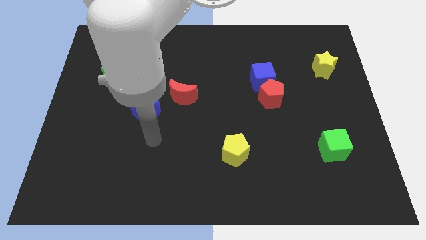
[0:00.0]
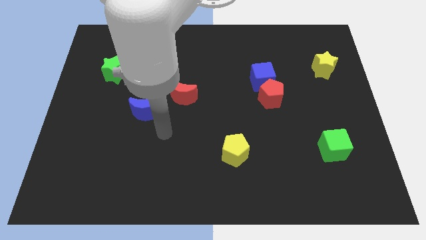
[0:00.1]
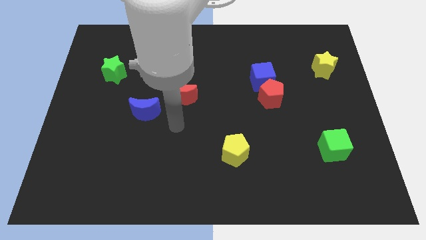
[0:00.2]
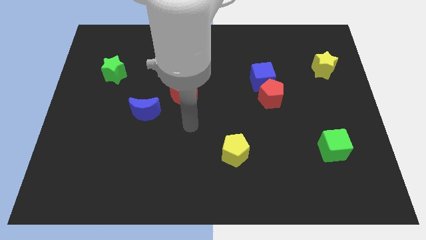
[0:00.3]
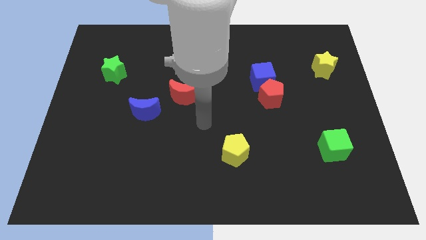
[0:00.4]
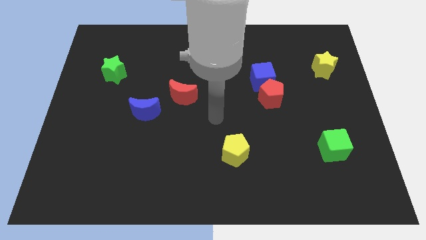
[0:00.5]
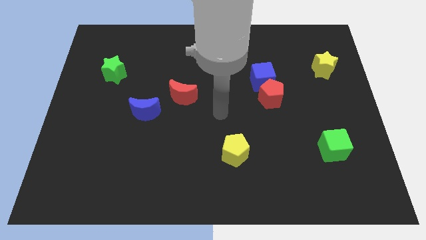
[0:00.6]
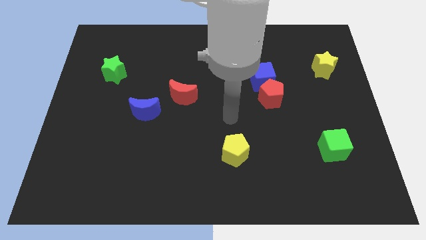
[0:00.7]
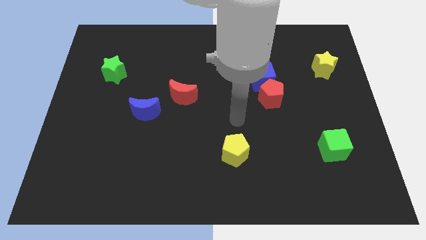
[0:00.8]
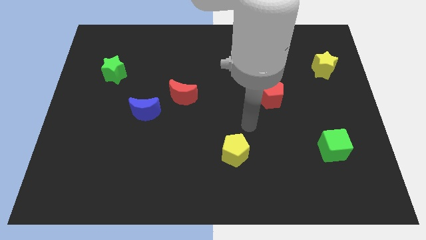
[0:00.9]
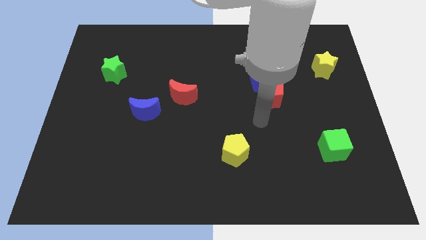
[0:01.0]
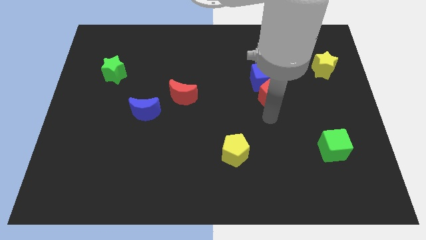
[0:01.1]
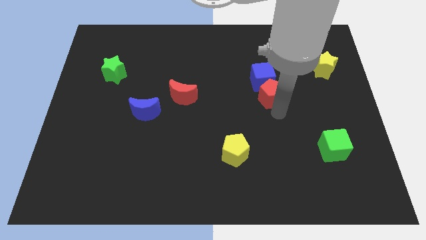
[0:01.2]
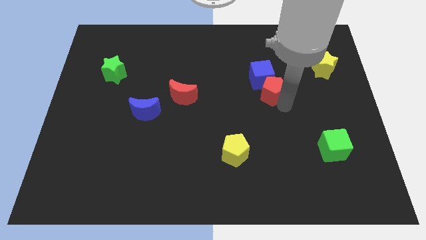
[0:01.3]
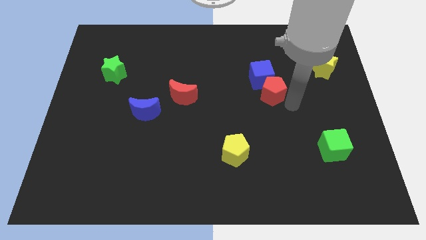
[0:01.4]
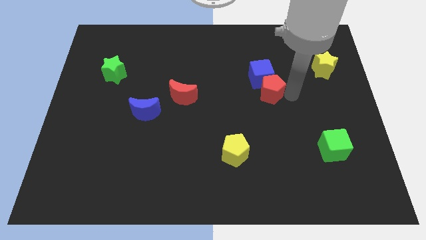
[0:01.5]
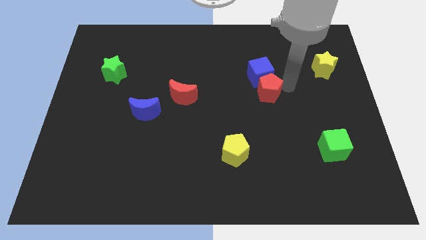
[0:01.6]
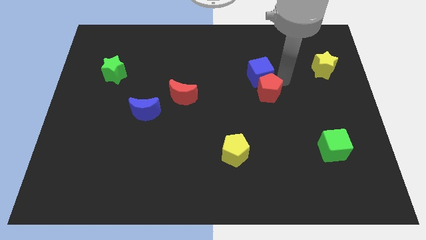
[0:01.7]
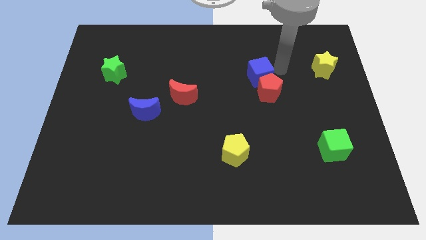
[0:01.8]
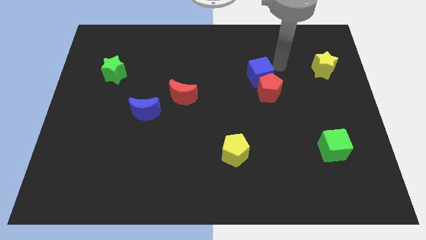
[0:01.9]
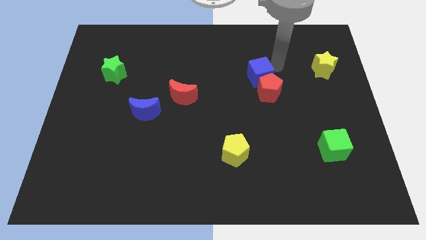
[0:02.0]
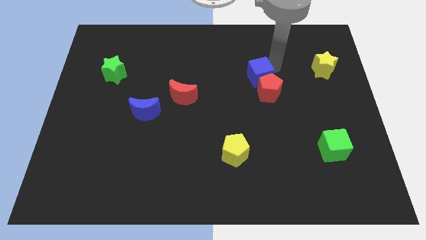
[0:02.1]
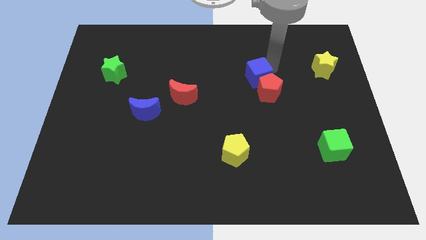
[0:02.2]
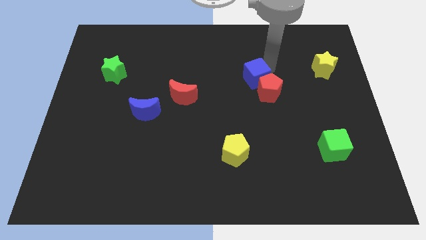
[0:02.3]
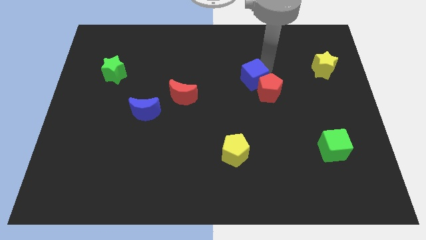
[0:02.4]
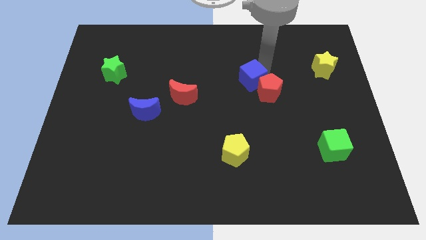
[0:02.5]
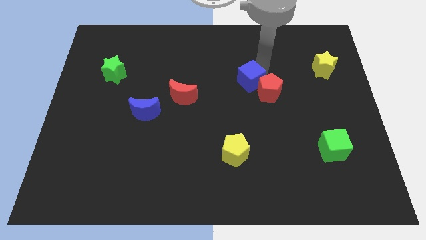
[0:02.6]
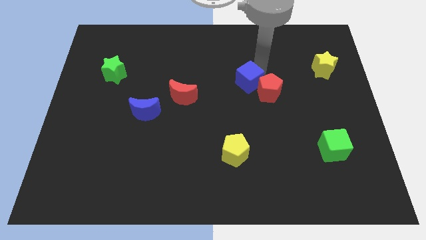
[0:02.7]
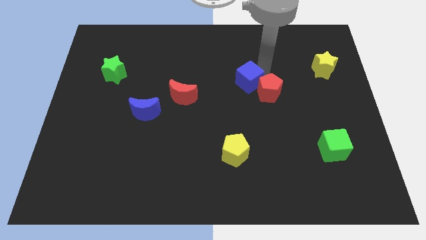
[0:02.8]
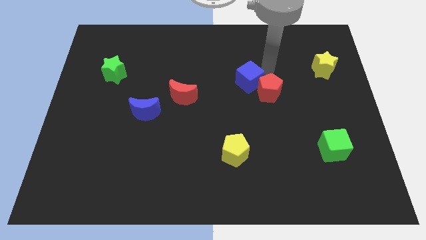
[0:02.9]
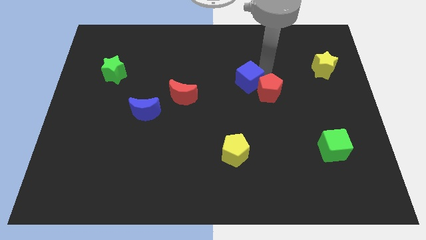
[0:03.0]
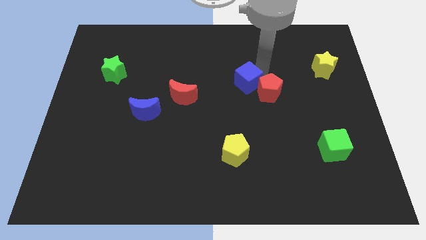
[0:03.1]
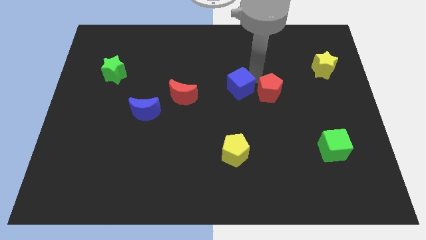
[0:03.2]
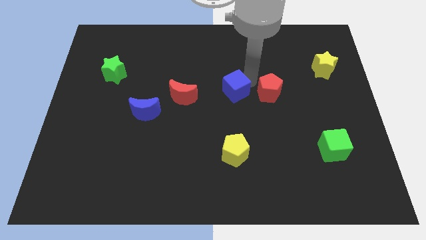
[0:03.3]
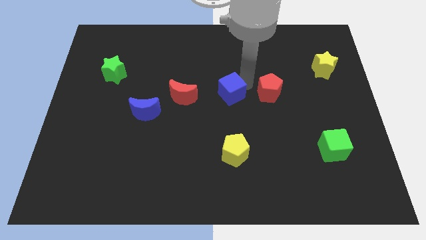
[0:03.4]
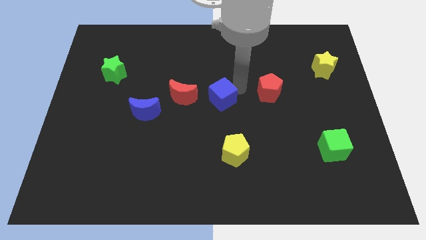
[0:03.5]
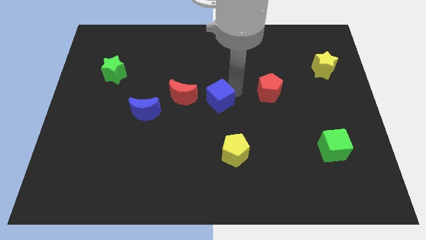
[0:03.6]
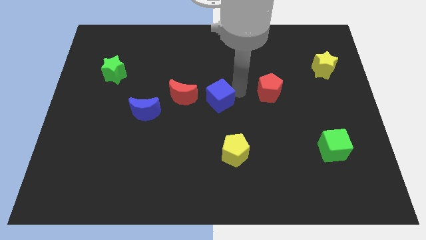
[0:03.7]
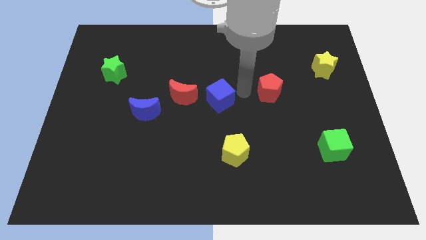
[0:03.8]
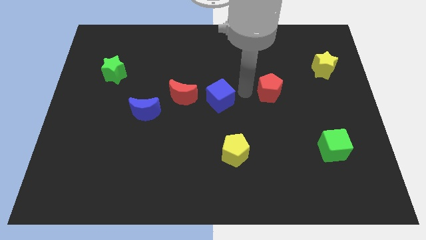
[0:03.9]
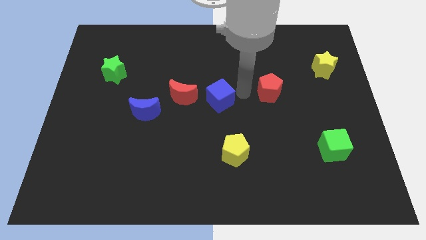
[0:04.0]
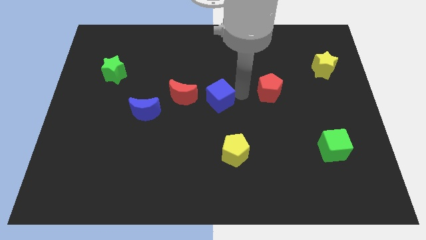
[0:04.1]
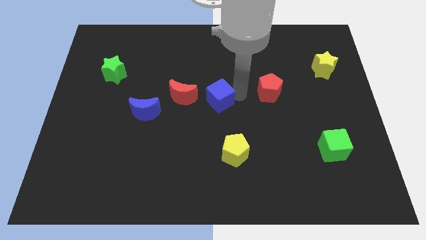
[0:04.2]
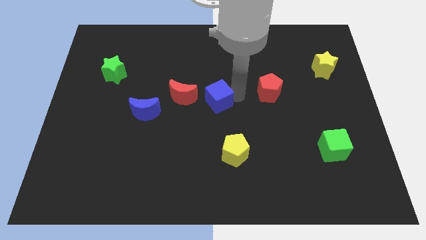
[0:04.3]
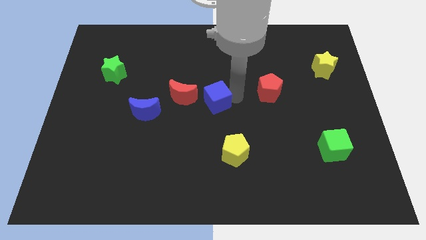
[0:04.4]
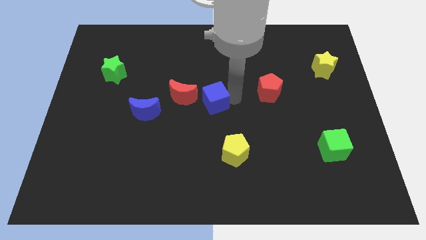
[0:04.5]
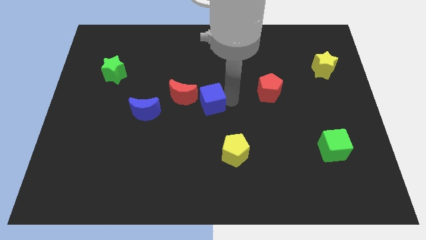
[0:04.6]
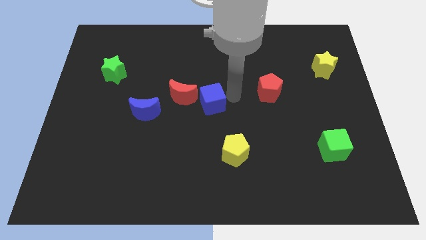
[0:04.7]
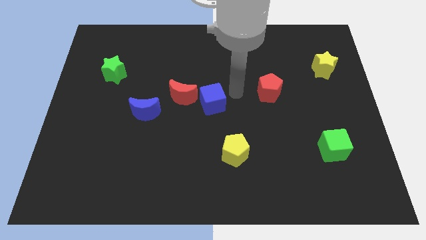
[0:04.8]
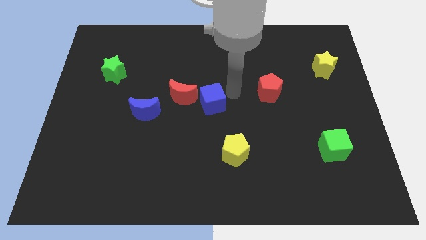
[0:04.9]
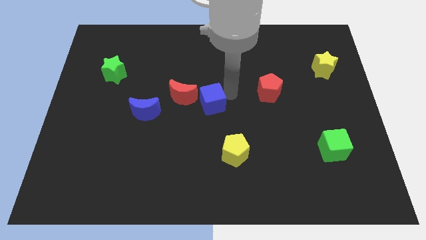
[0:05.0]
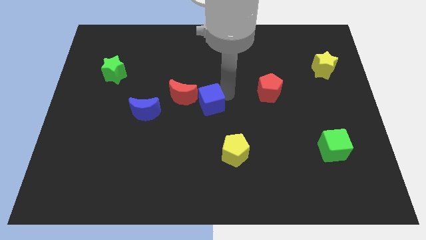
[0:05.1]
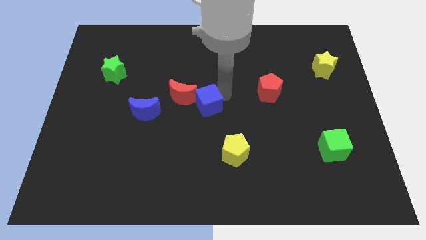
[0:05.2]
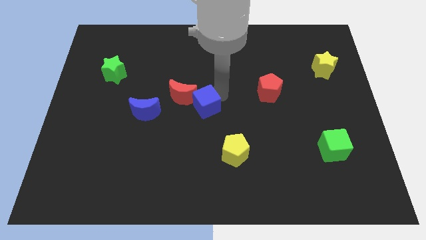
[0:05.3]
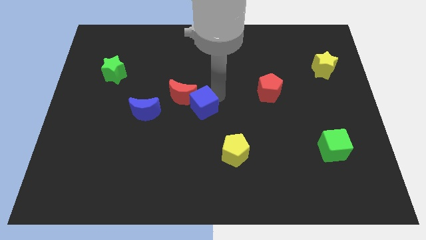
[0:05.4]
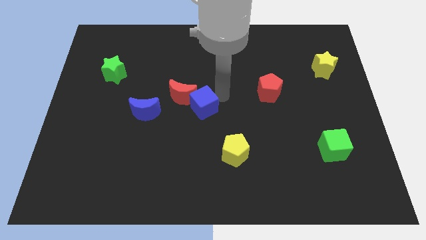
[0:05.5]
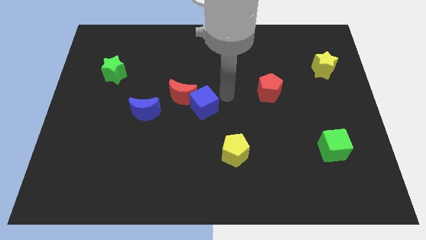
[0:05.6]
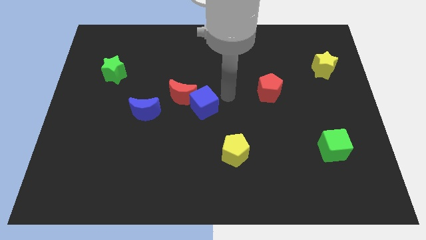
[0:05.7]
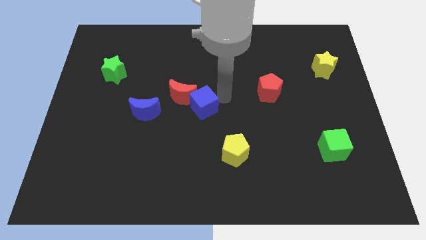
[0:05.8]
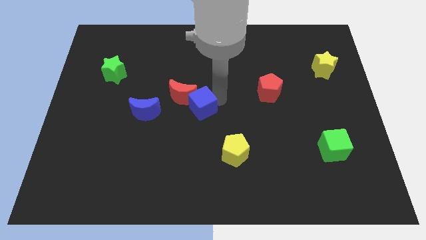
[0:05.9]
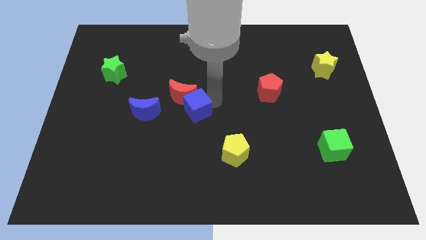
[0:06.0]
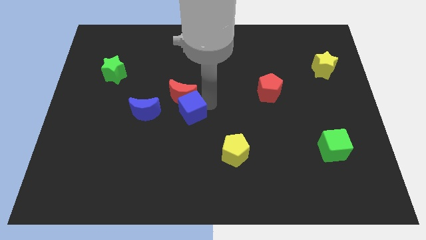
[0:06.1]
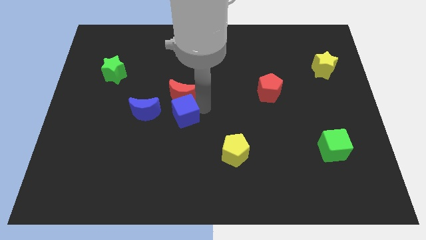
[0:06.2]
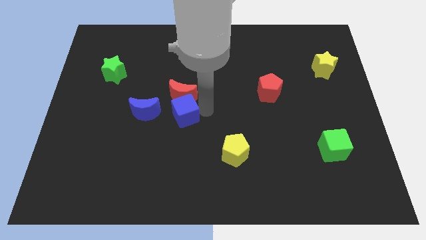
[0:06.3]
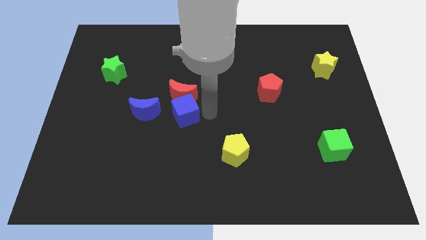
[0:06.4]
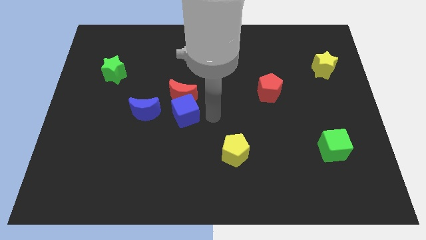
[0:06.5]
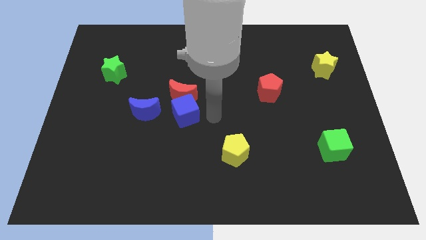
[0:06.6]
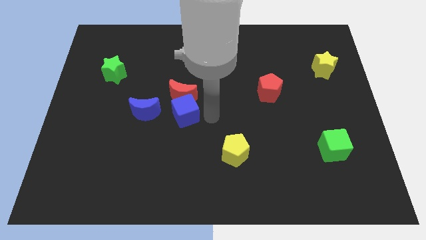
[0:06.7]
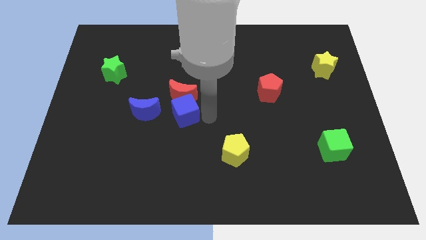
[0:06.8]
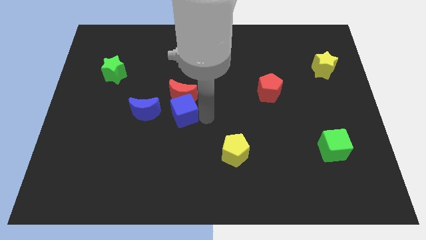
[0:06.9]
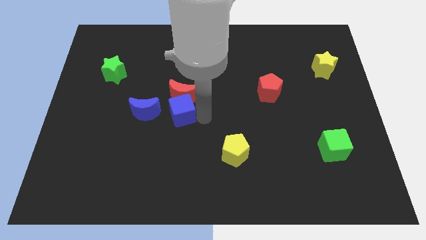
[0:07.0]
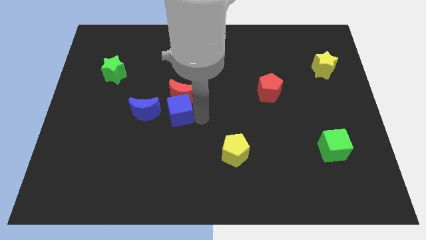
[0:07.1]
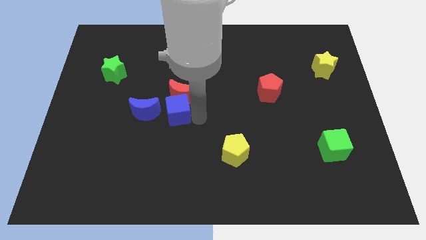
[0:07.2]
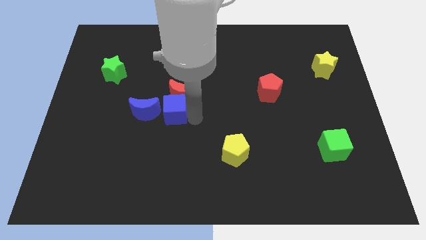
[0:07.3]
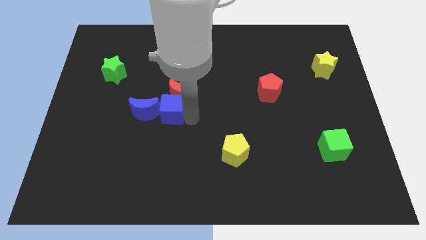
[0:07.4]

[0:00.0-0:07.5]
push the blue cube close to the blue moon
